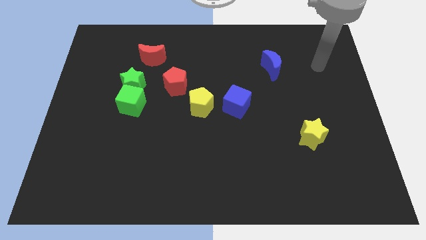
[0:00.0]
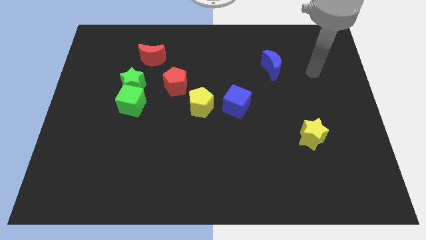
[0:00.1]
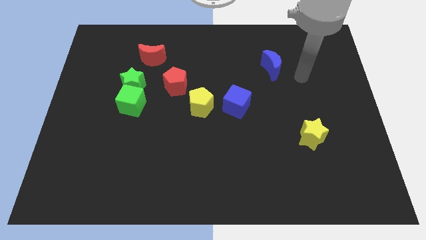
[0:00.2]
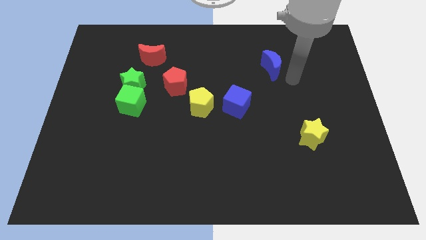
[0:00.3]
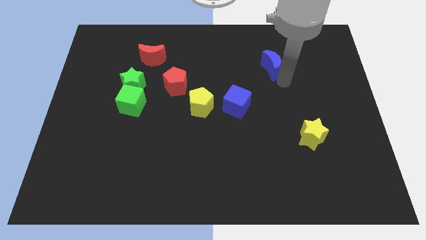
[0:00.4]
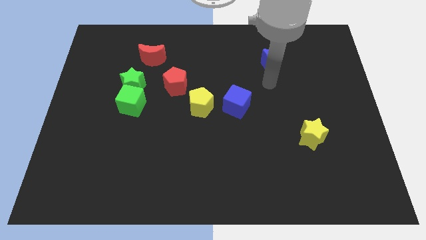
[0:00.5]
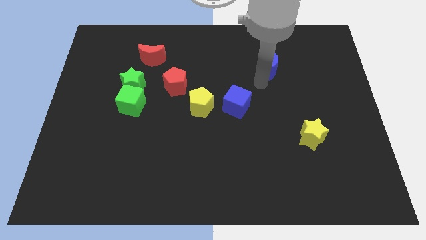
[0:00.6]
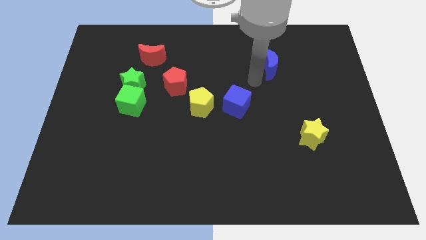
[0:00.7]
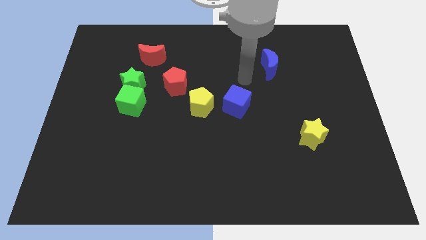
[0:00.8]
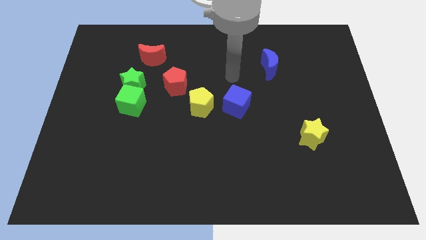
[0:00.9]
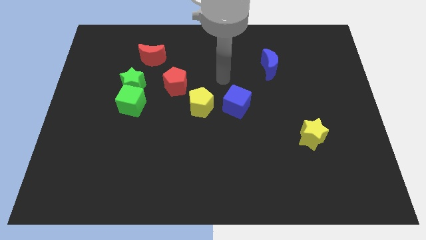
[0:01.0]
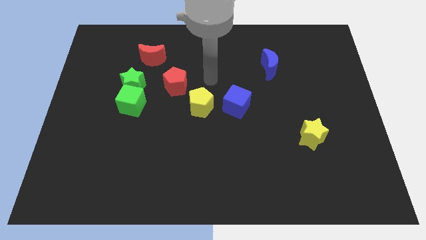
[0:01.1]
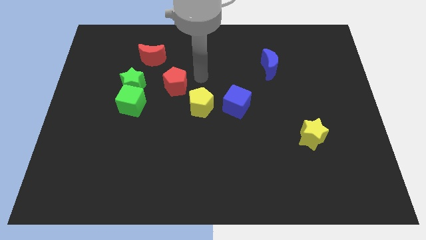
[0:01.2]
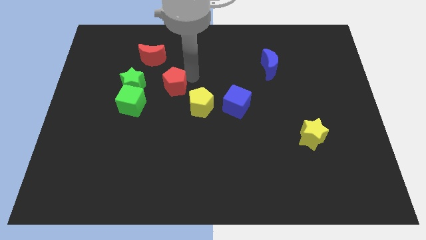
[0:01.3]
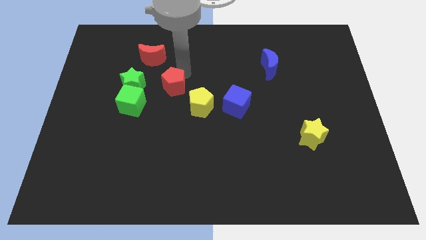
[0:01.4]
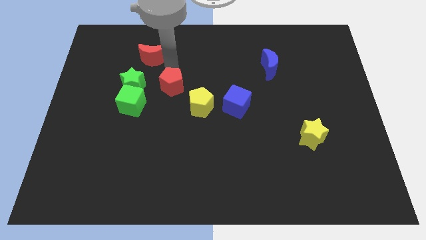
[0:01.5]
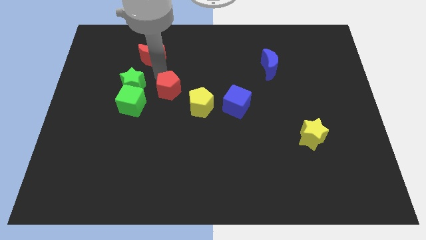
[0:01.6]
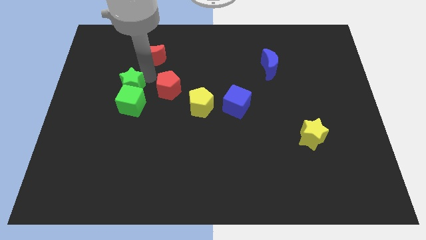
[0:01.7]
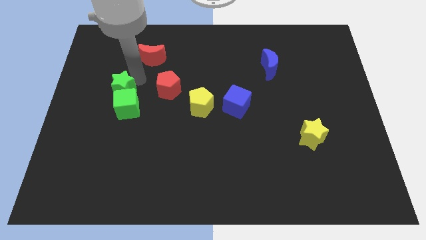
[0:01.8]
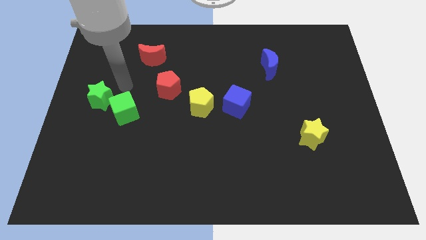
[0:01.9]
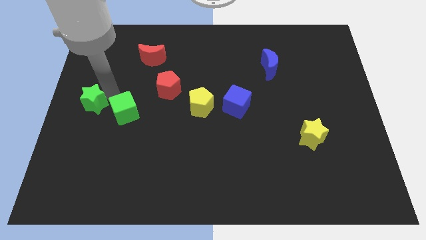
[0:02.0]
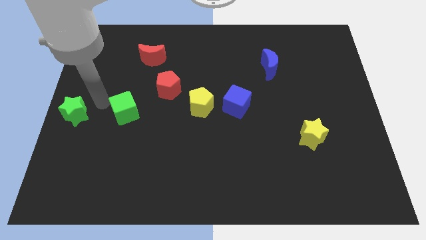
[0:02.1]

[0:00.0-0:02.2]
pull the green cube apart from the green star

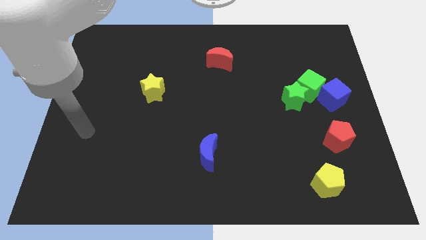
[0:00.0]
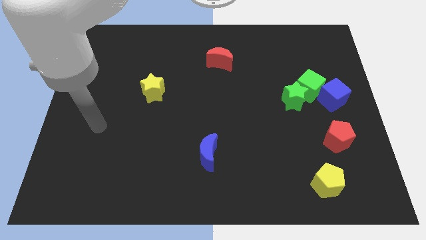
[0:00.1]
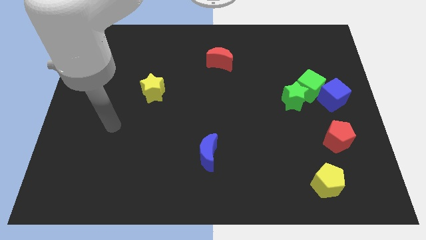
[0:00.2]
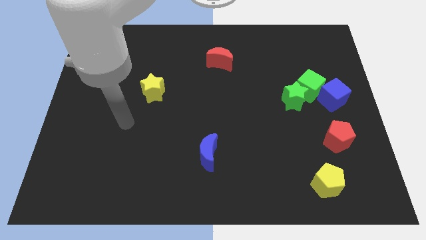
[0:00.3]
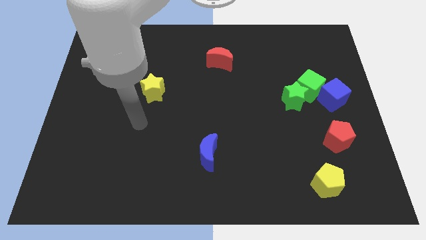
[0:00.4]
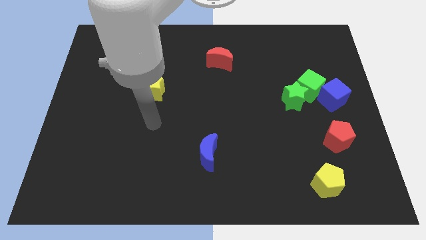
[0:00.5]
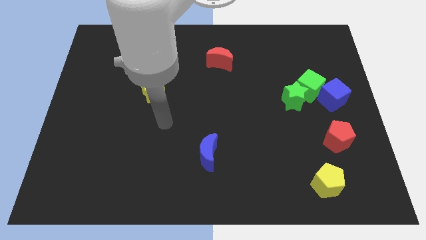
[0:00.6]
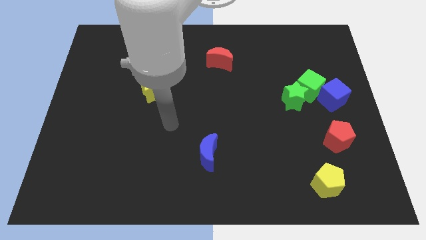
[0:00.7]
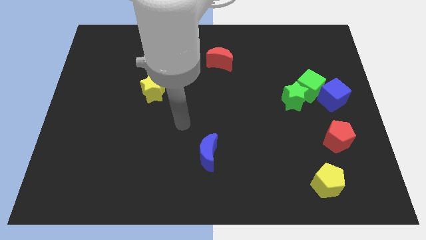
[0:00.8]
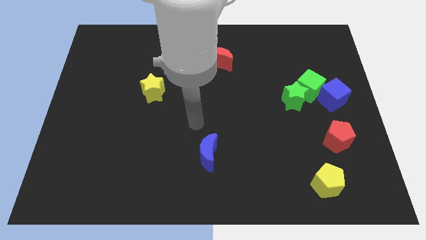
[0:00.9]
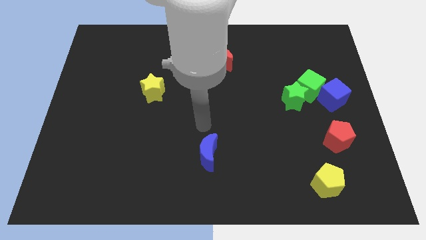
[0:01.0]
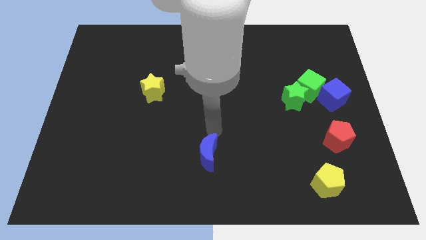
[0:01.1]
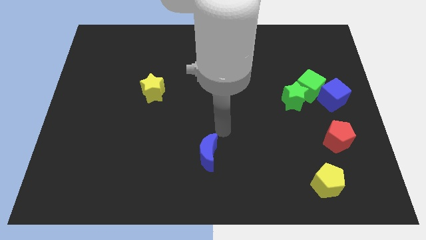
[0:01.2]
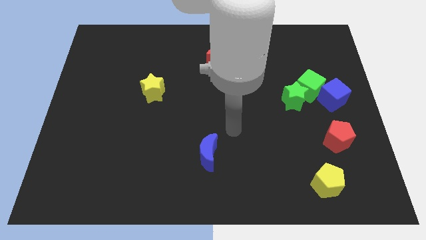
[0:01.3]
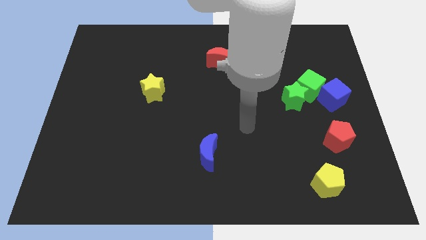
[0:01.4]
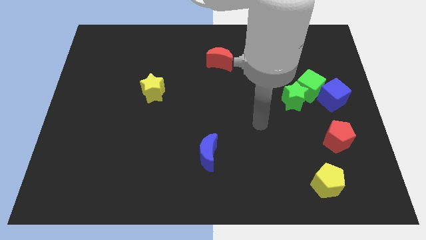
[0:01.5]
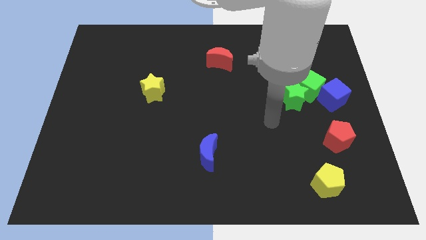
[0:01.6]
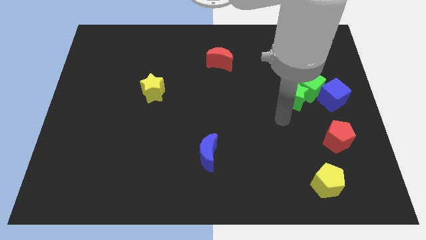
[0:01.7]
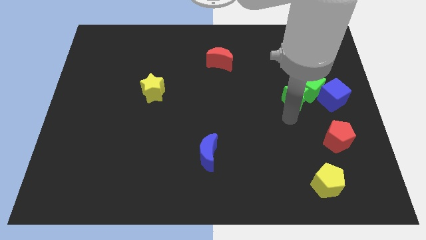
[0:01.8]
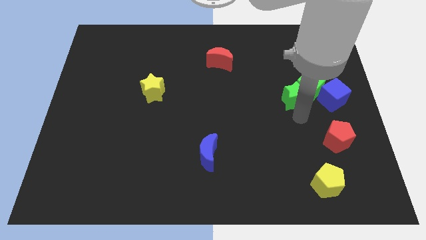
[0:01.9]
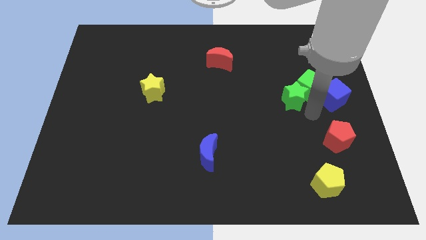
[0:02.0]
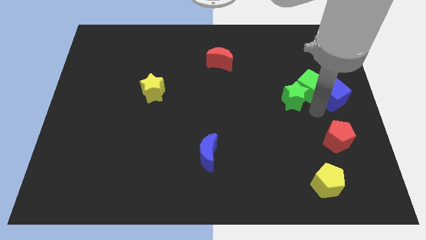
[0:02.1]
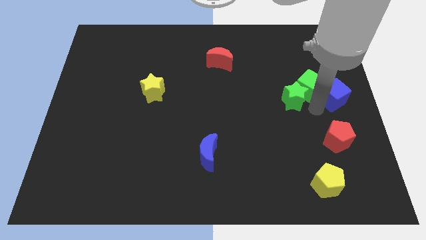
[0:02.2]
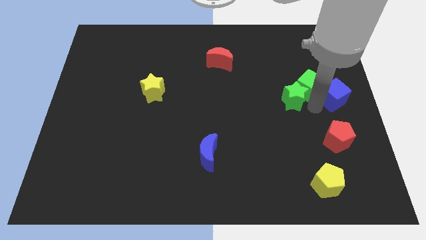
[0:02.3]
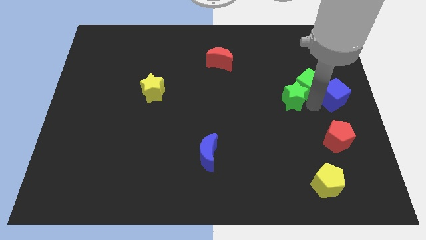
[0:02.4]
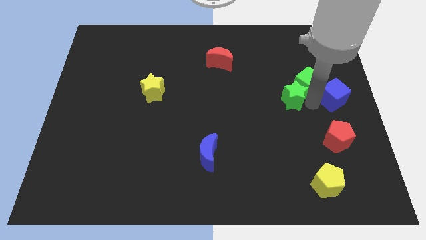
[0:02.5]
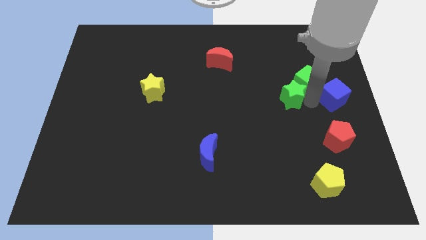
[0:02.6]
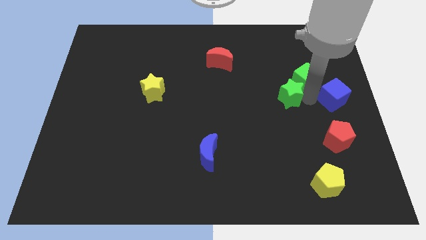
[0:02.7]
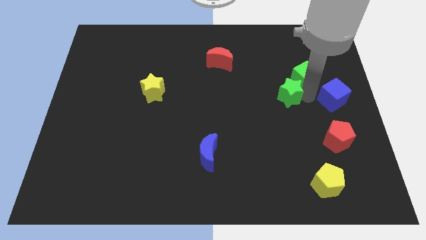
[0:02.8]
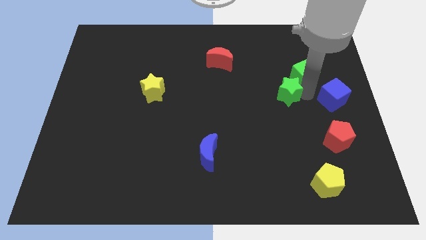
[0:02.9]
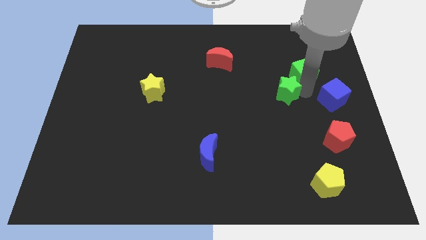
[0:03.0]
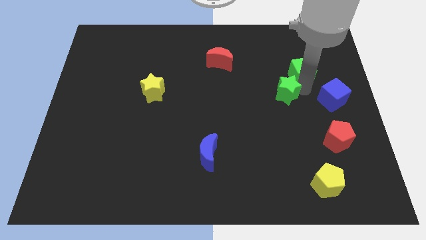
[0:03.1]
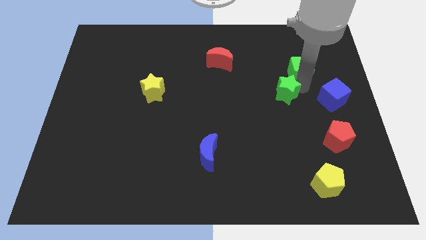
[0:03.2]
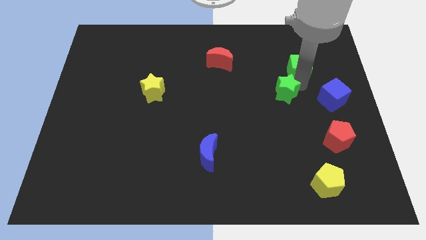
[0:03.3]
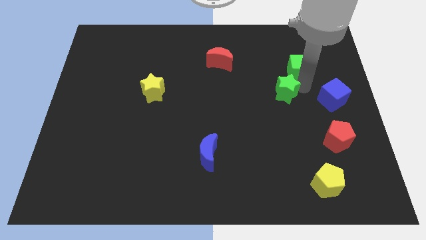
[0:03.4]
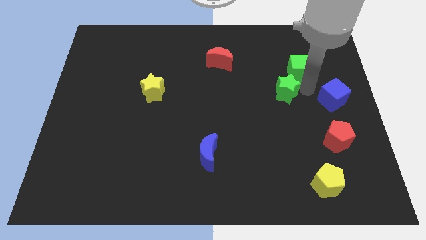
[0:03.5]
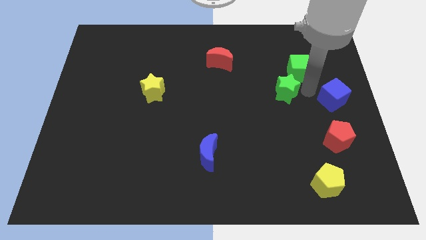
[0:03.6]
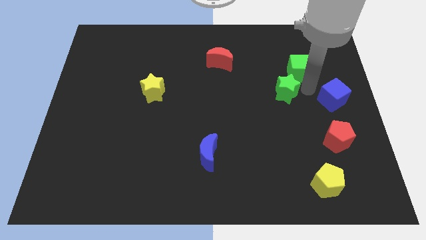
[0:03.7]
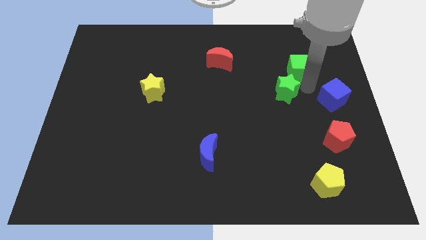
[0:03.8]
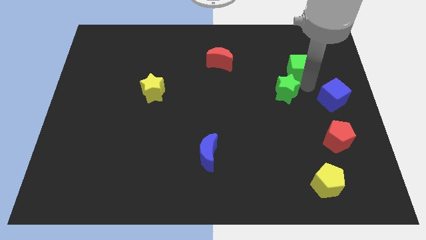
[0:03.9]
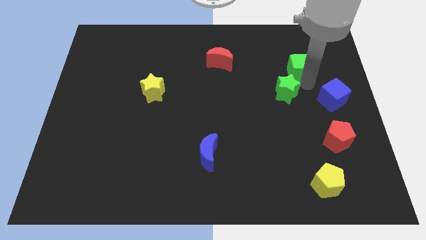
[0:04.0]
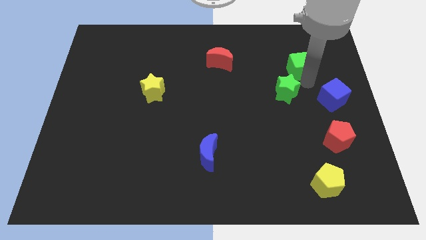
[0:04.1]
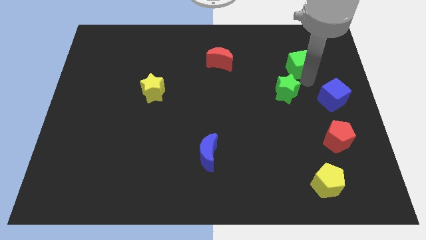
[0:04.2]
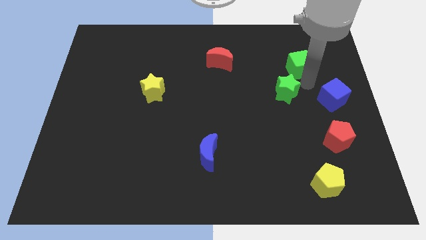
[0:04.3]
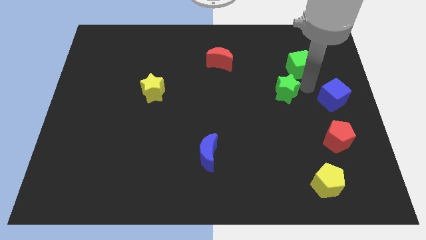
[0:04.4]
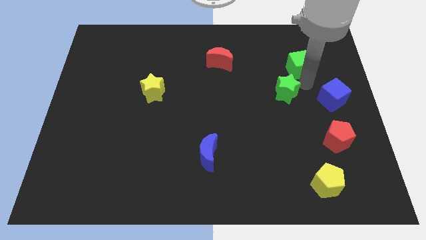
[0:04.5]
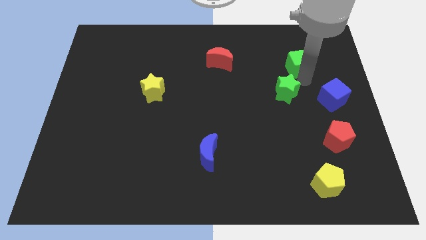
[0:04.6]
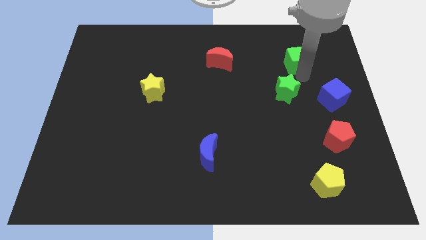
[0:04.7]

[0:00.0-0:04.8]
separate the green cube from the green star and blue cube

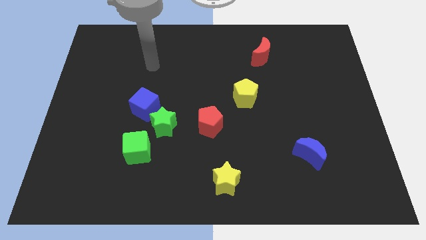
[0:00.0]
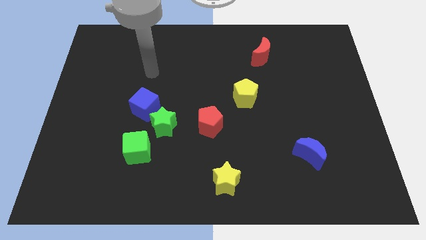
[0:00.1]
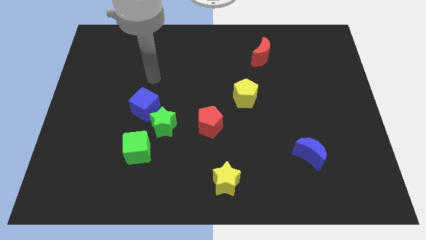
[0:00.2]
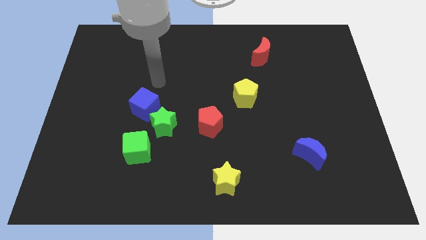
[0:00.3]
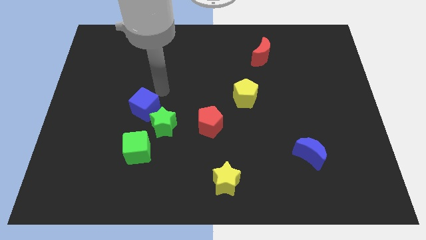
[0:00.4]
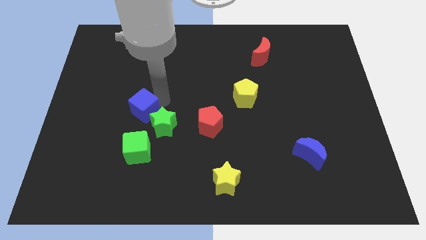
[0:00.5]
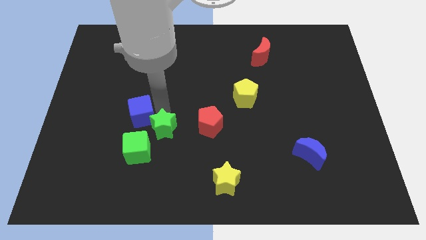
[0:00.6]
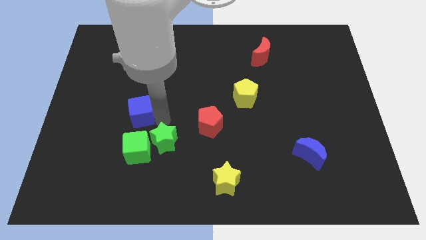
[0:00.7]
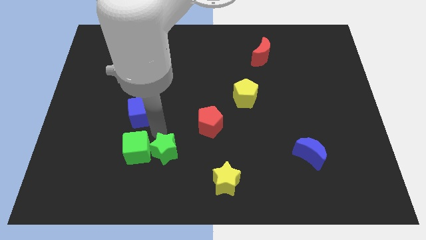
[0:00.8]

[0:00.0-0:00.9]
move the blue cube away from the green star

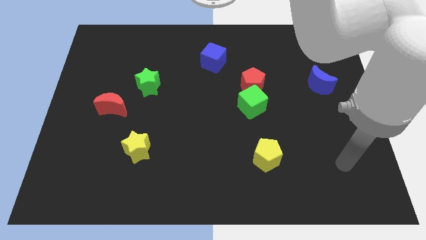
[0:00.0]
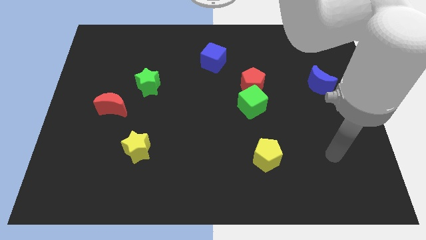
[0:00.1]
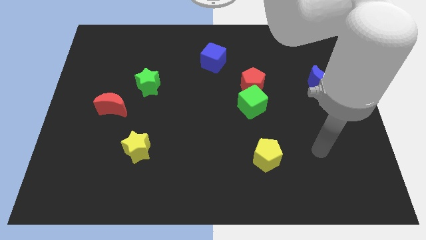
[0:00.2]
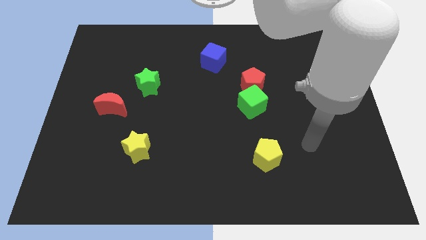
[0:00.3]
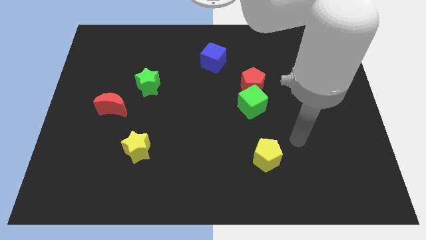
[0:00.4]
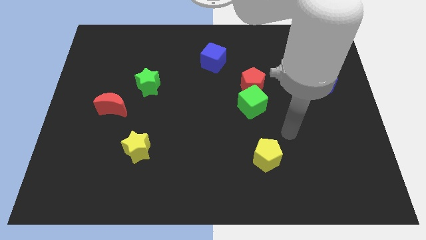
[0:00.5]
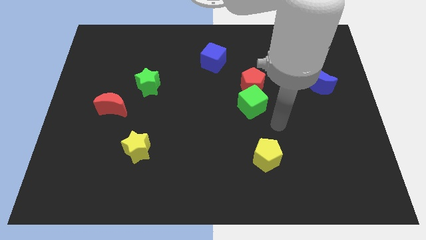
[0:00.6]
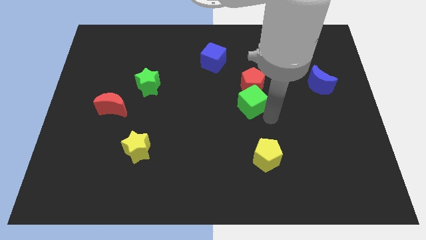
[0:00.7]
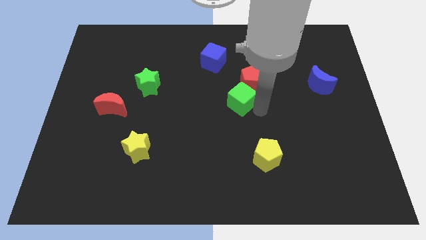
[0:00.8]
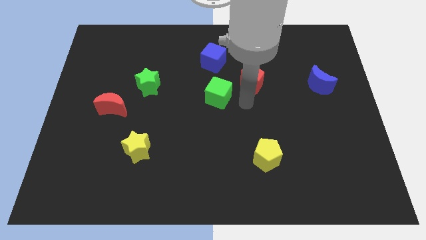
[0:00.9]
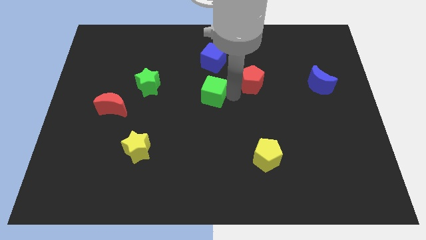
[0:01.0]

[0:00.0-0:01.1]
separate the red pentagon from the green cube

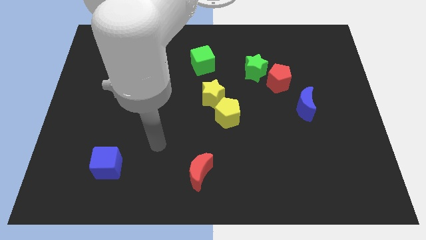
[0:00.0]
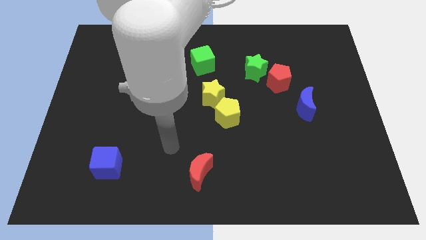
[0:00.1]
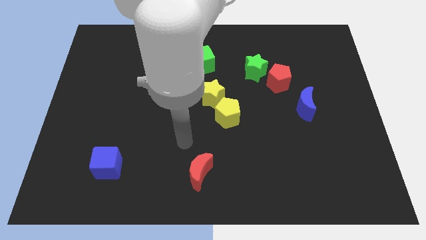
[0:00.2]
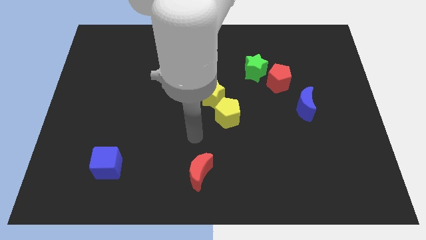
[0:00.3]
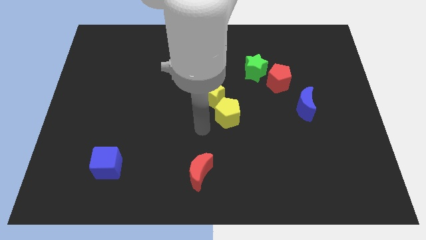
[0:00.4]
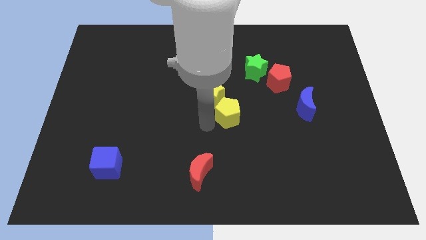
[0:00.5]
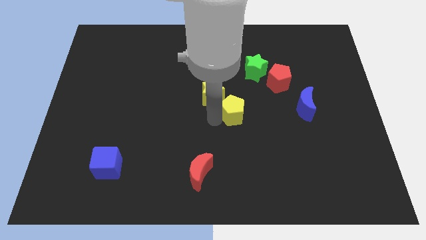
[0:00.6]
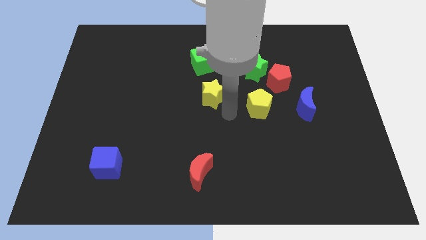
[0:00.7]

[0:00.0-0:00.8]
move the yellow star away from the yellow pentagon
